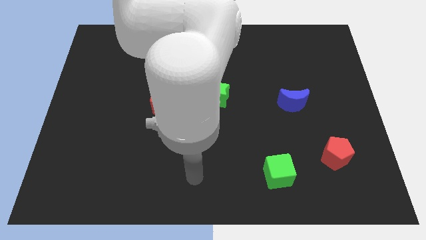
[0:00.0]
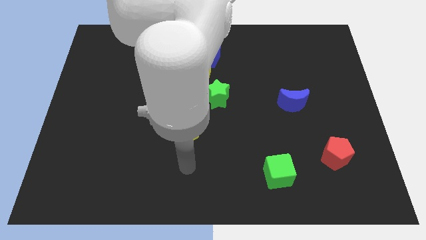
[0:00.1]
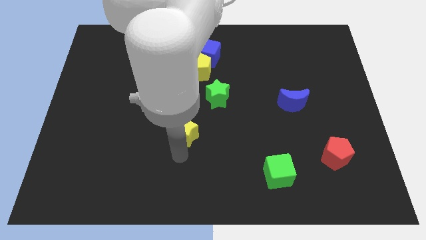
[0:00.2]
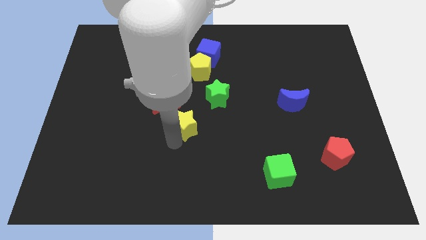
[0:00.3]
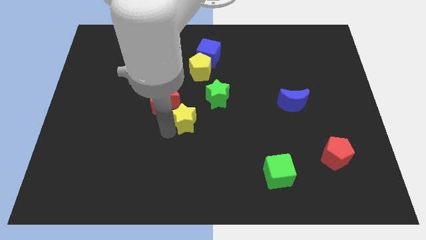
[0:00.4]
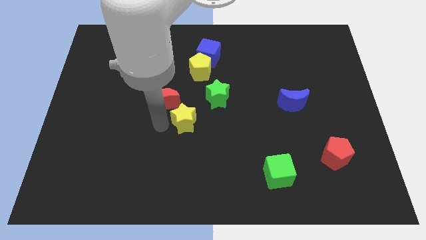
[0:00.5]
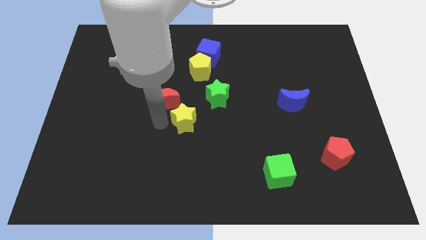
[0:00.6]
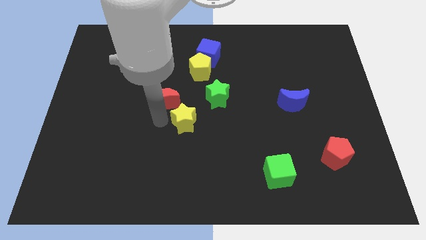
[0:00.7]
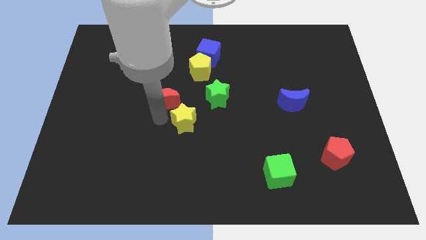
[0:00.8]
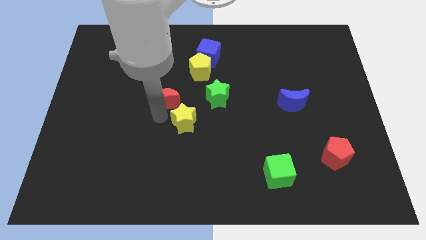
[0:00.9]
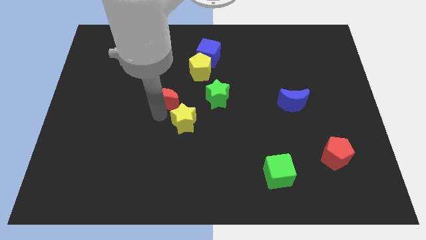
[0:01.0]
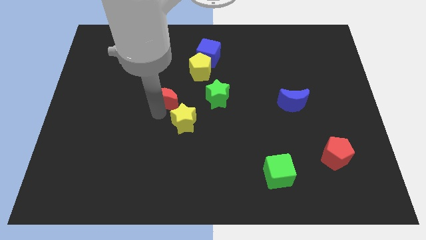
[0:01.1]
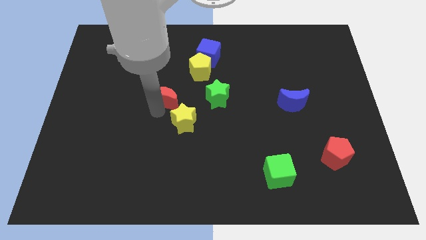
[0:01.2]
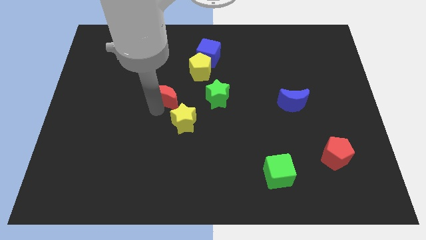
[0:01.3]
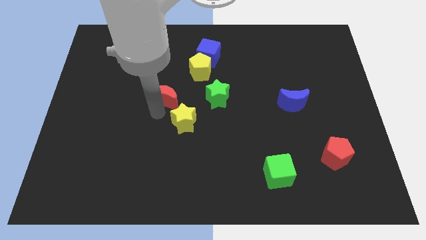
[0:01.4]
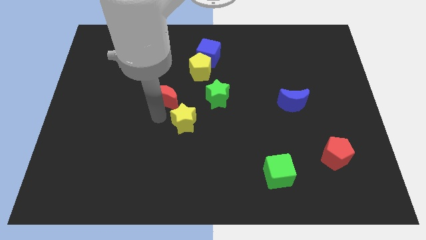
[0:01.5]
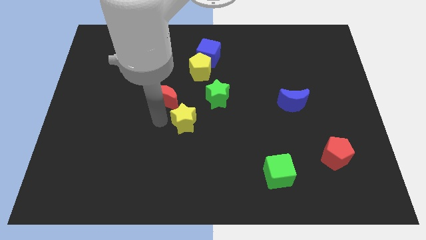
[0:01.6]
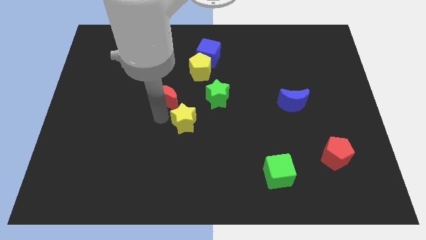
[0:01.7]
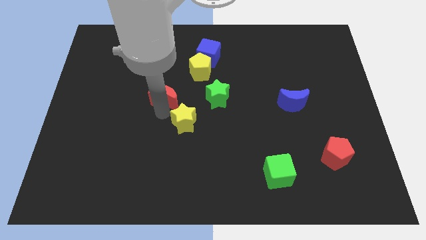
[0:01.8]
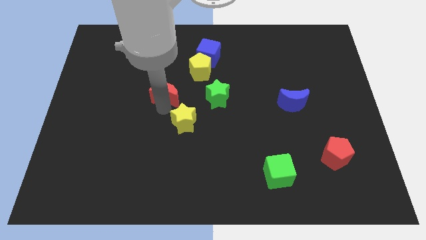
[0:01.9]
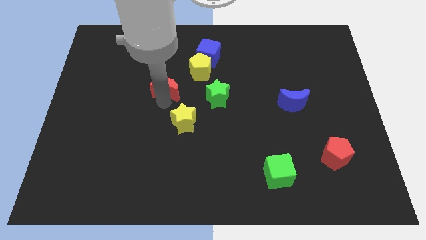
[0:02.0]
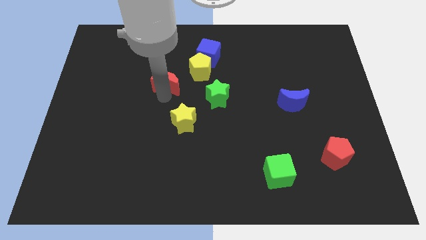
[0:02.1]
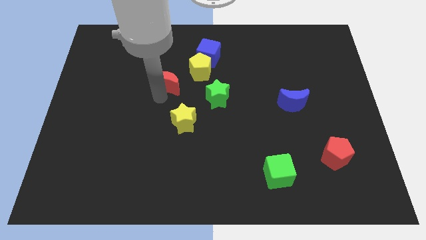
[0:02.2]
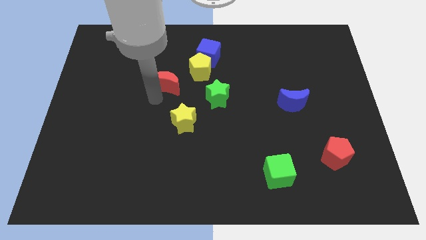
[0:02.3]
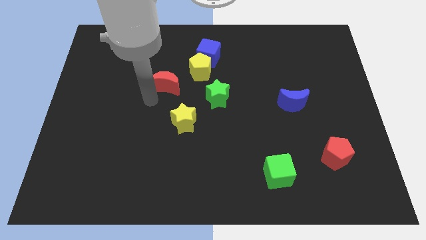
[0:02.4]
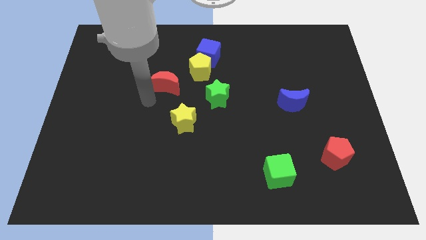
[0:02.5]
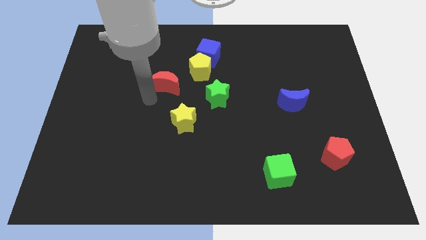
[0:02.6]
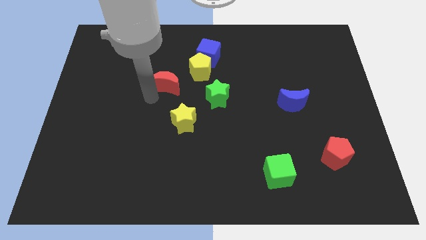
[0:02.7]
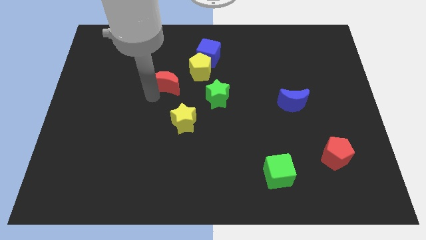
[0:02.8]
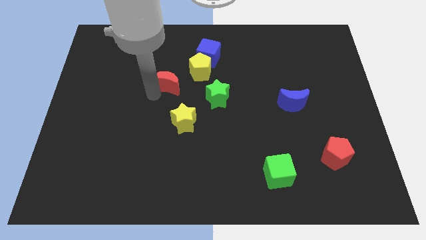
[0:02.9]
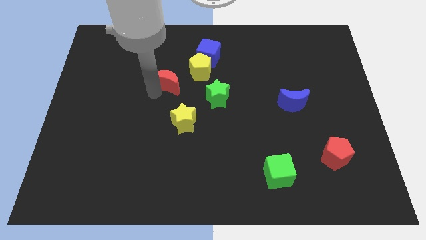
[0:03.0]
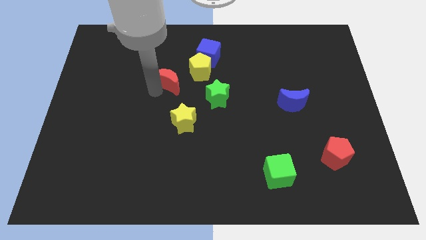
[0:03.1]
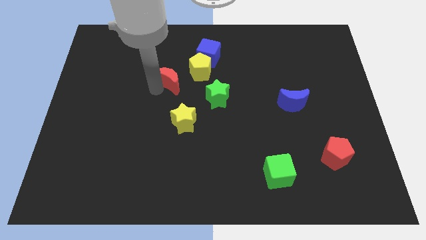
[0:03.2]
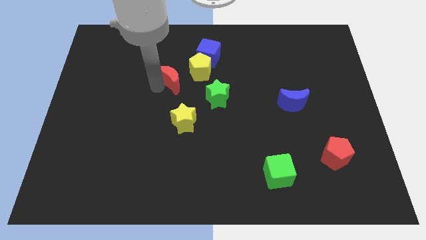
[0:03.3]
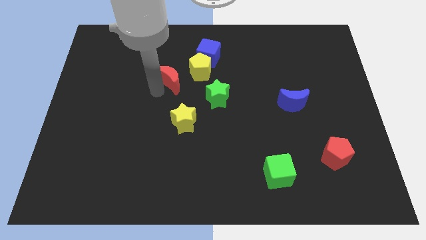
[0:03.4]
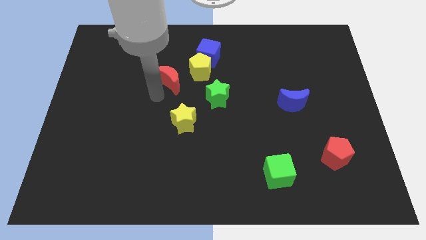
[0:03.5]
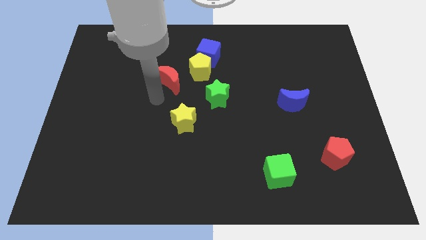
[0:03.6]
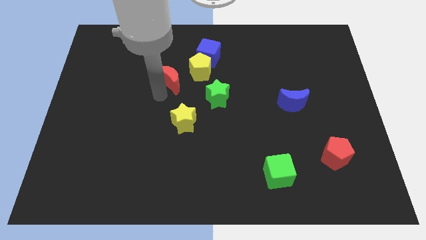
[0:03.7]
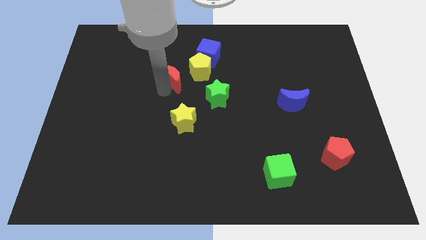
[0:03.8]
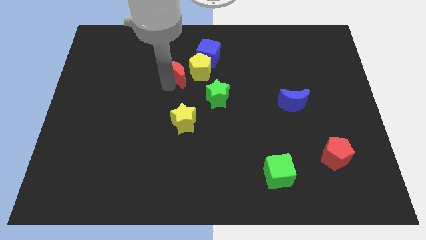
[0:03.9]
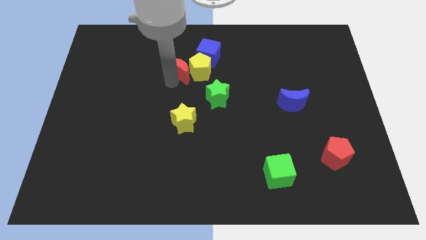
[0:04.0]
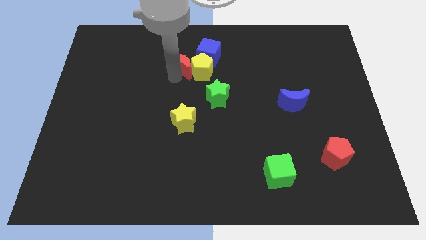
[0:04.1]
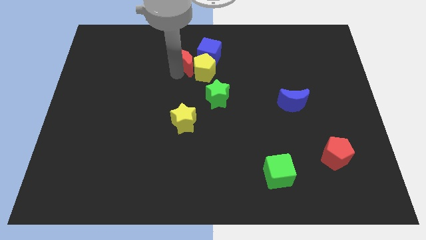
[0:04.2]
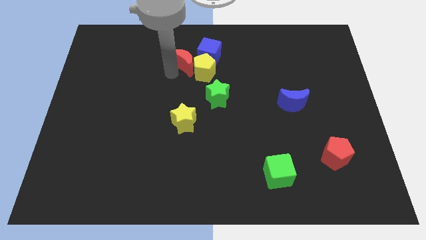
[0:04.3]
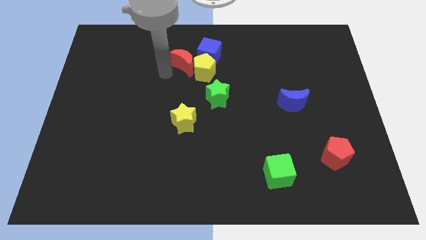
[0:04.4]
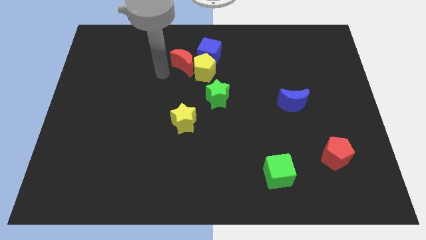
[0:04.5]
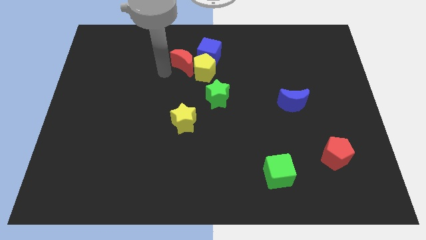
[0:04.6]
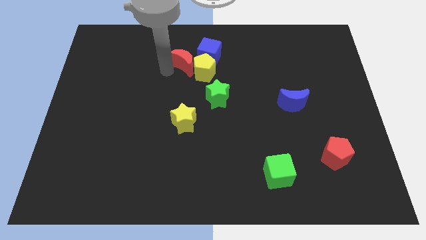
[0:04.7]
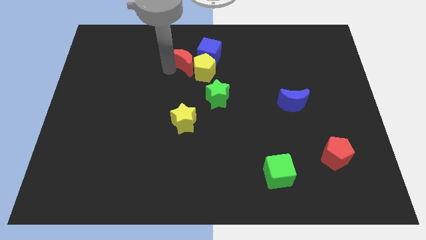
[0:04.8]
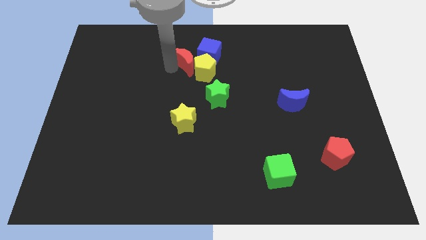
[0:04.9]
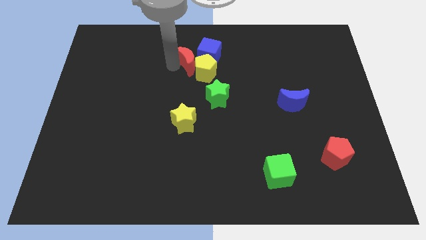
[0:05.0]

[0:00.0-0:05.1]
put the red moon towards the blue cube

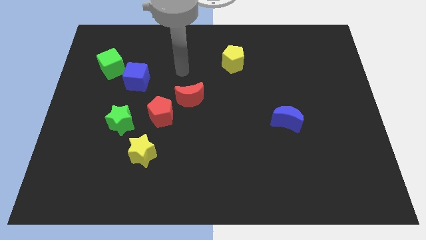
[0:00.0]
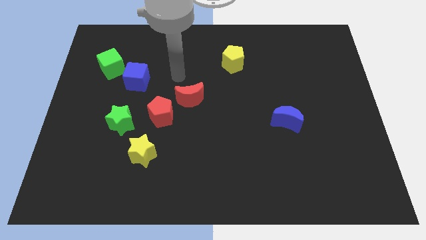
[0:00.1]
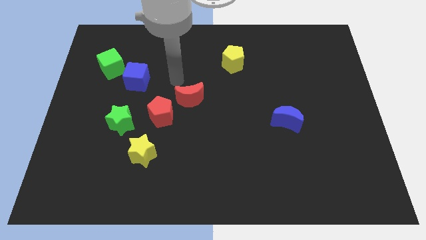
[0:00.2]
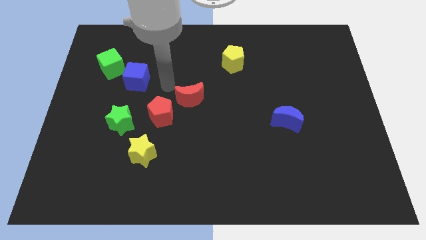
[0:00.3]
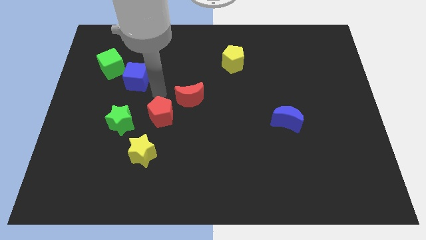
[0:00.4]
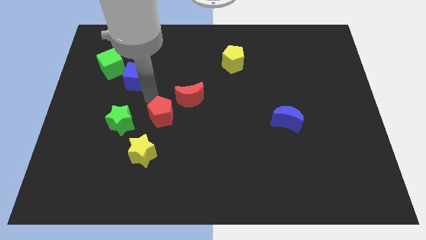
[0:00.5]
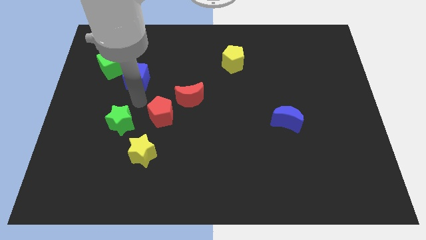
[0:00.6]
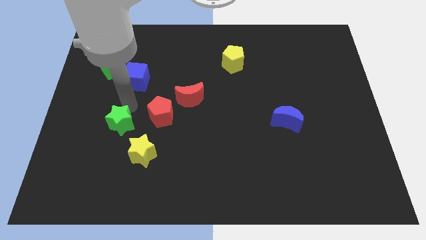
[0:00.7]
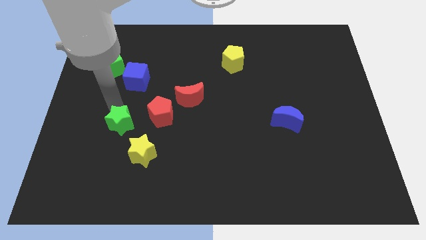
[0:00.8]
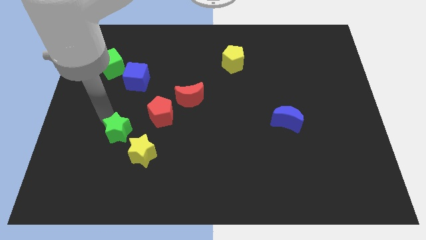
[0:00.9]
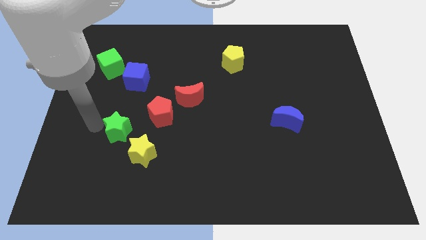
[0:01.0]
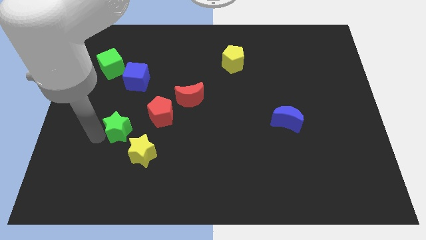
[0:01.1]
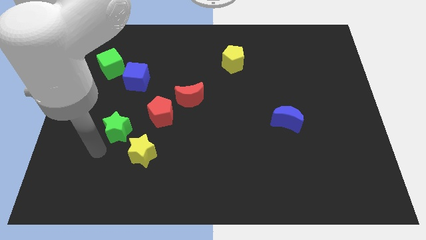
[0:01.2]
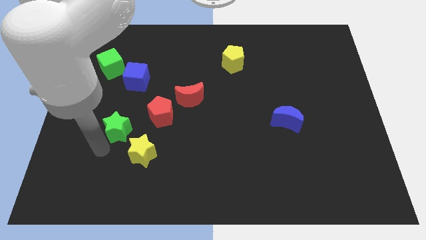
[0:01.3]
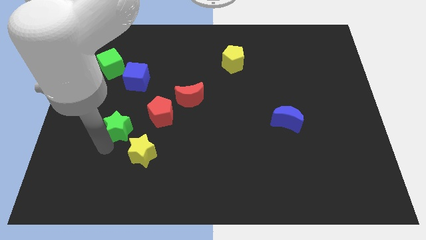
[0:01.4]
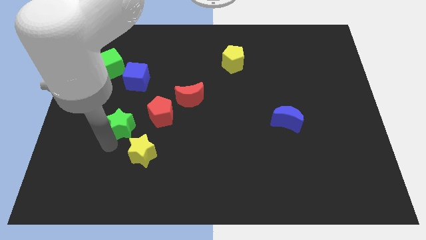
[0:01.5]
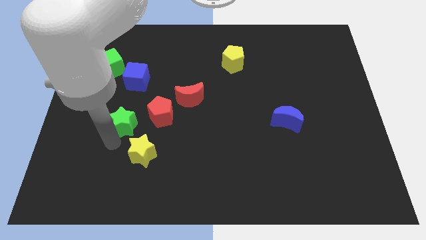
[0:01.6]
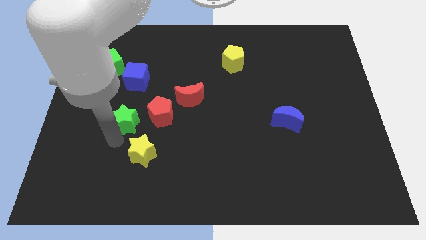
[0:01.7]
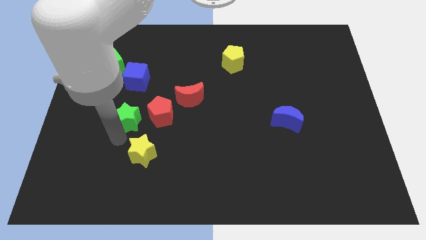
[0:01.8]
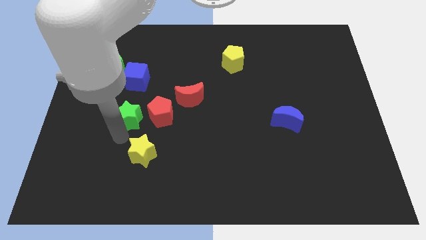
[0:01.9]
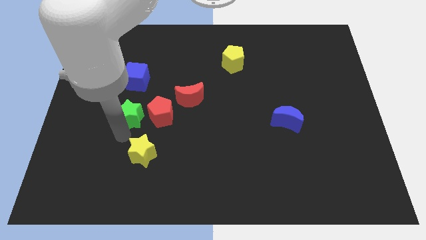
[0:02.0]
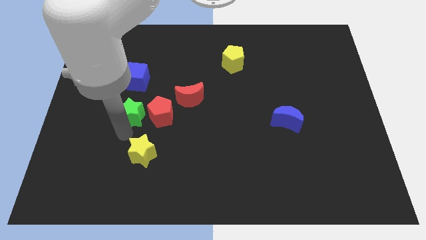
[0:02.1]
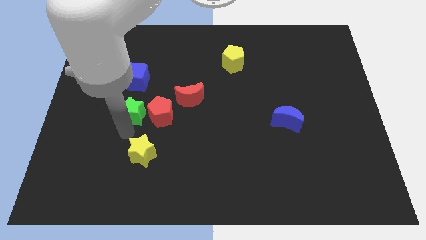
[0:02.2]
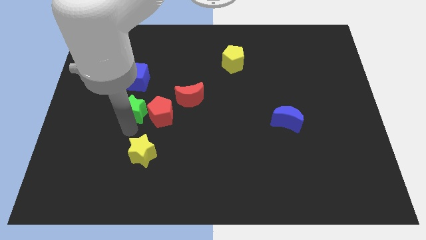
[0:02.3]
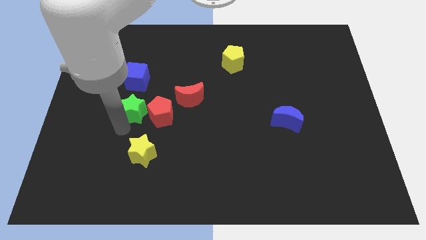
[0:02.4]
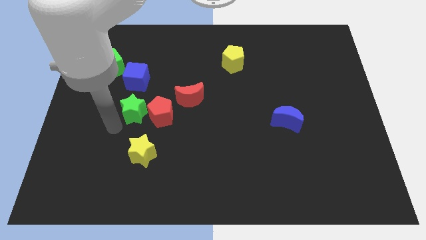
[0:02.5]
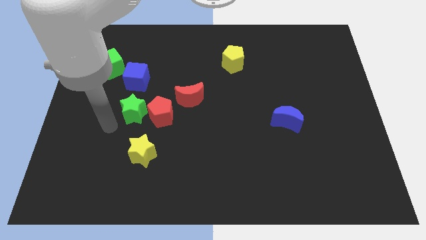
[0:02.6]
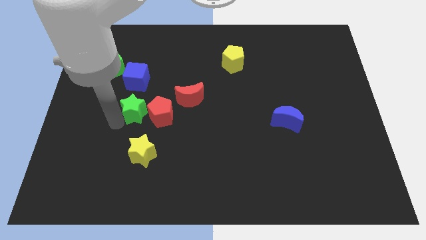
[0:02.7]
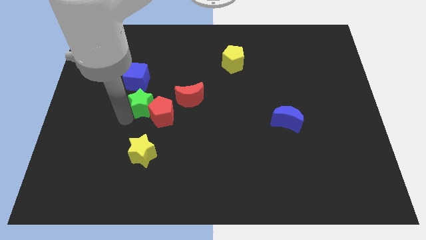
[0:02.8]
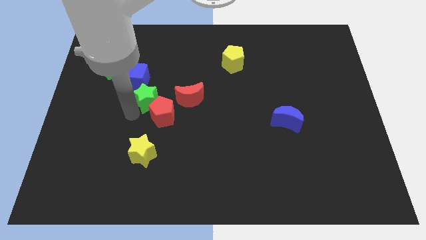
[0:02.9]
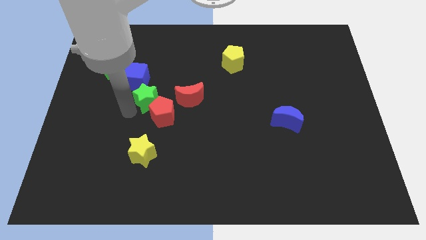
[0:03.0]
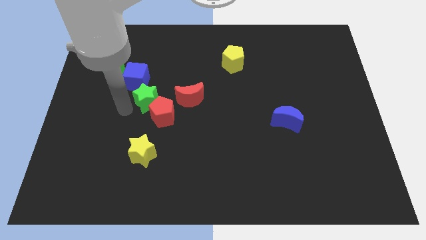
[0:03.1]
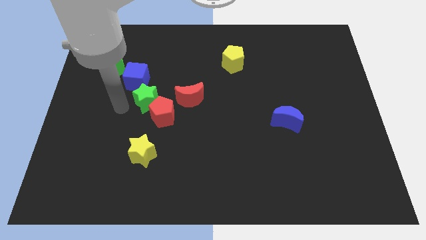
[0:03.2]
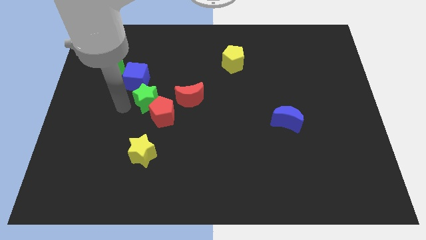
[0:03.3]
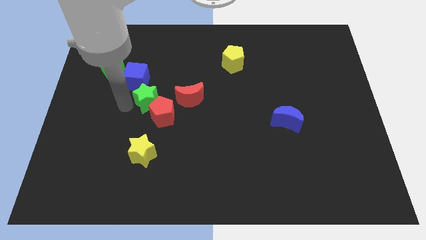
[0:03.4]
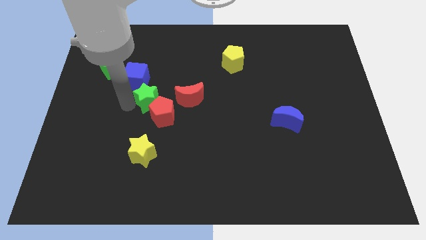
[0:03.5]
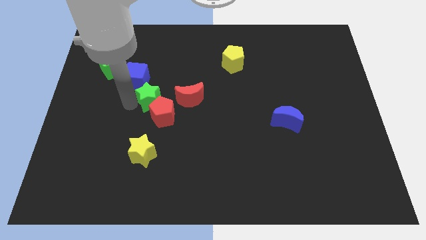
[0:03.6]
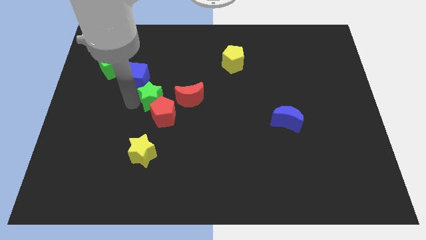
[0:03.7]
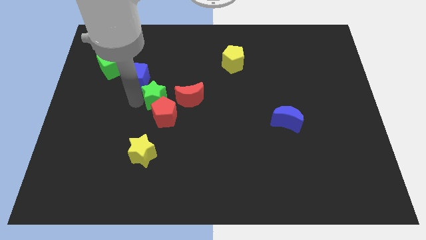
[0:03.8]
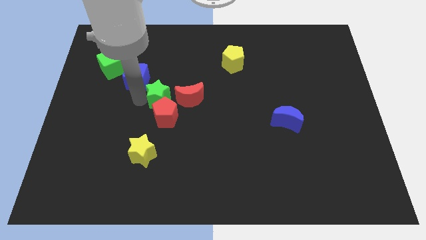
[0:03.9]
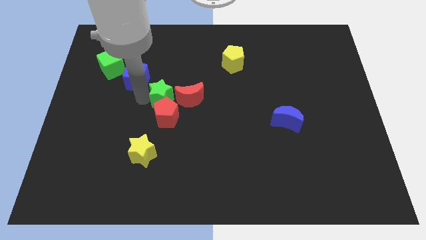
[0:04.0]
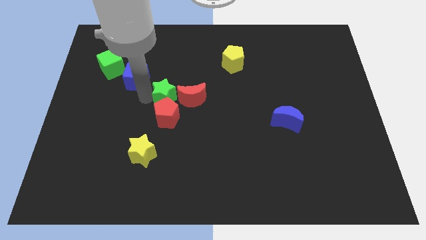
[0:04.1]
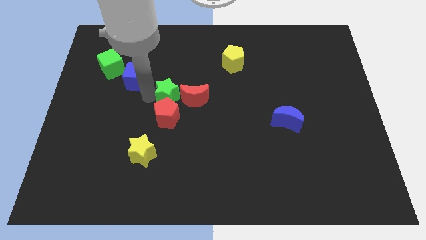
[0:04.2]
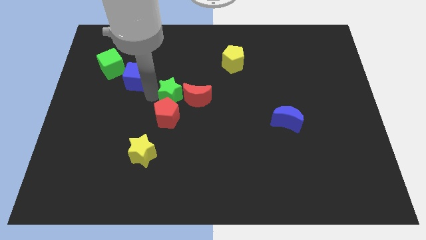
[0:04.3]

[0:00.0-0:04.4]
move the green star towards the red moon
